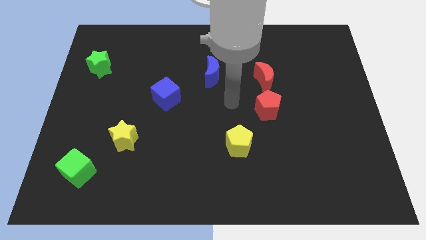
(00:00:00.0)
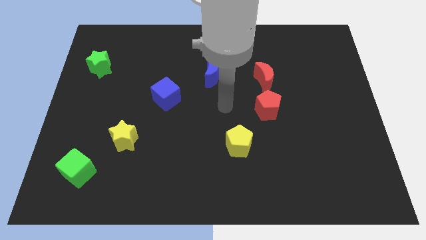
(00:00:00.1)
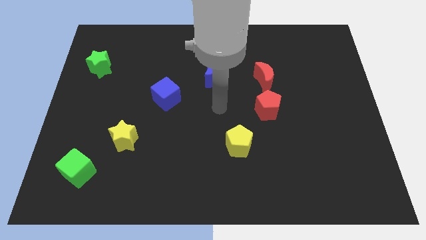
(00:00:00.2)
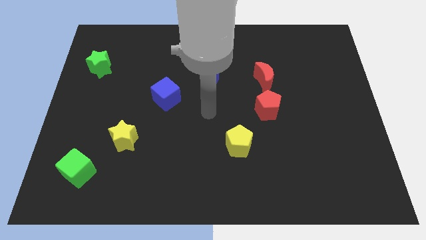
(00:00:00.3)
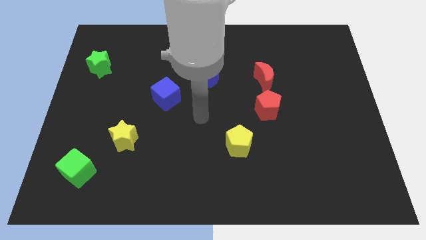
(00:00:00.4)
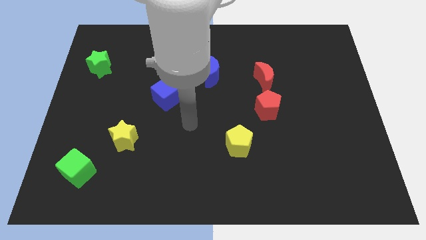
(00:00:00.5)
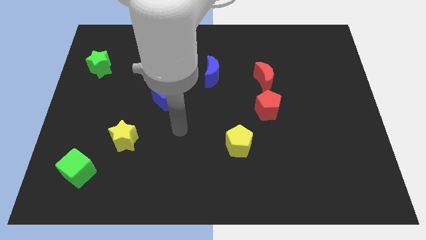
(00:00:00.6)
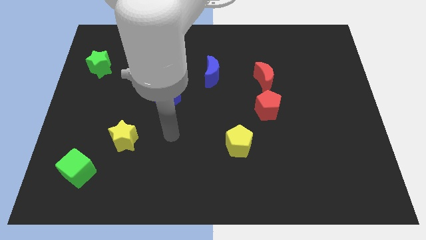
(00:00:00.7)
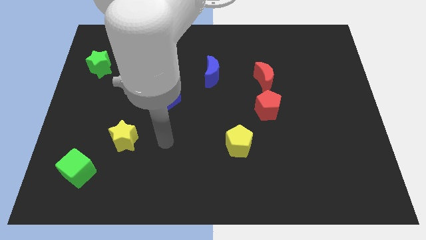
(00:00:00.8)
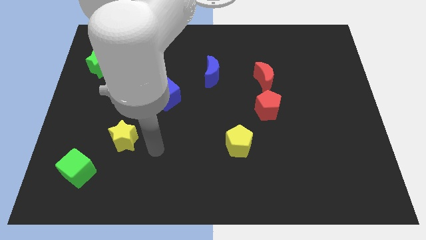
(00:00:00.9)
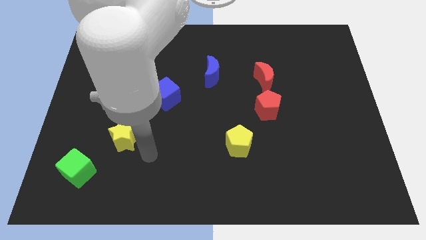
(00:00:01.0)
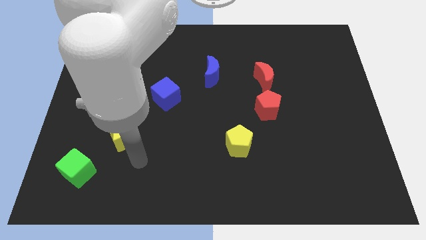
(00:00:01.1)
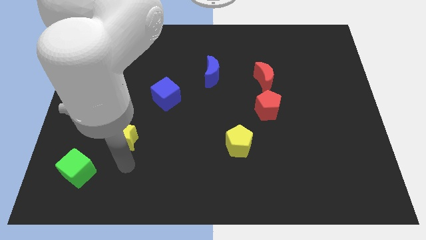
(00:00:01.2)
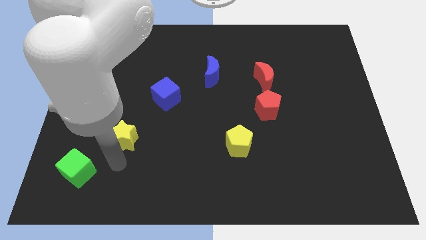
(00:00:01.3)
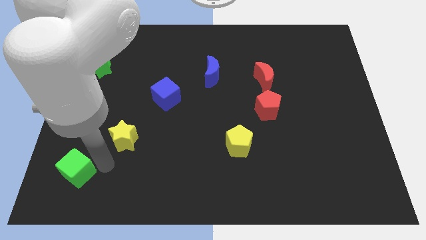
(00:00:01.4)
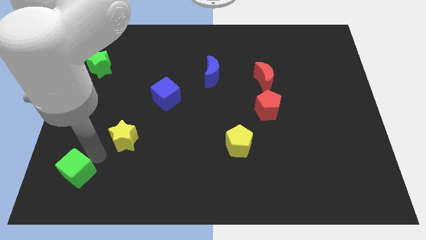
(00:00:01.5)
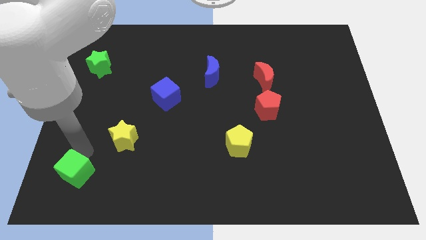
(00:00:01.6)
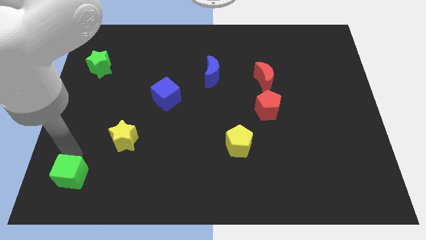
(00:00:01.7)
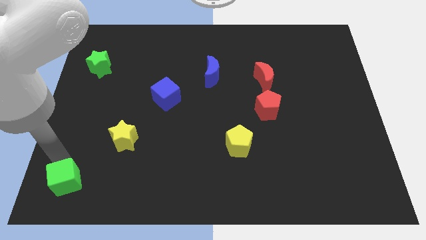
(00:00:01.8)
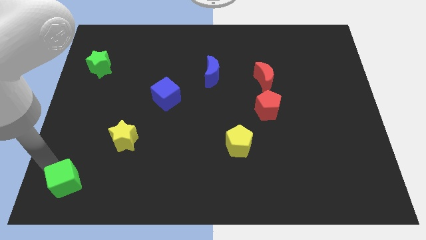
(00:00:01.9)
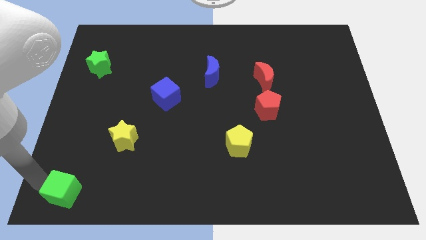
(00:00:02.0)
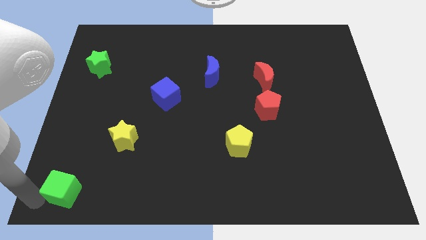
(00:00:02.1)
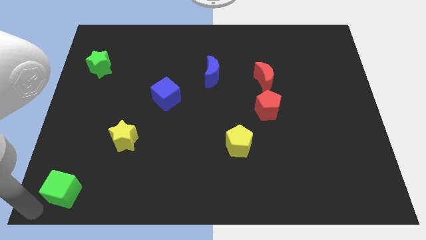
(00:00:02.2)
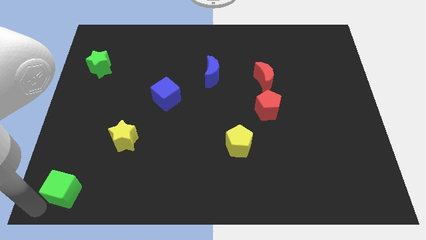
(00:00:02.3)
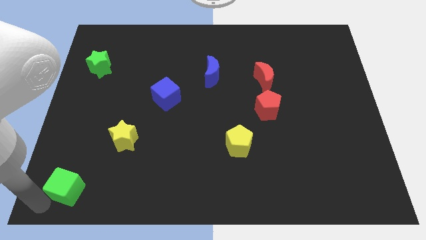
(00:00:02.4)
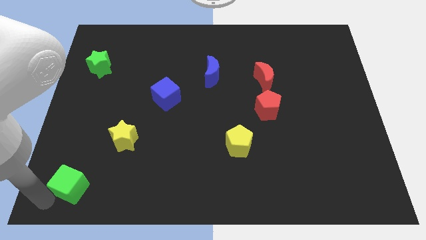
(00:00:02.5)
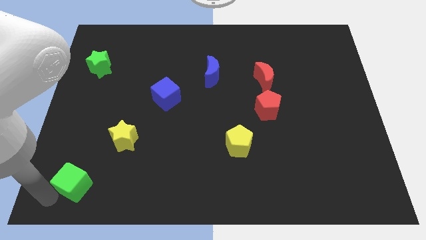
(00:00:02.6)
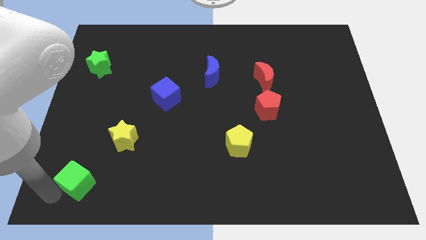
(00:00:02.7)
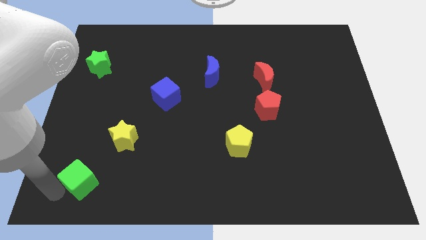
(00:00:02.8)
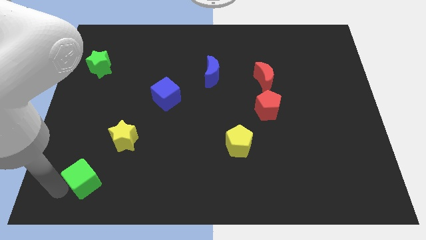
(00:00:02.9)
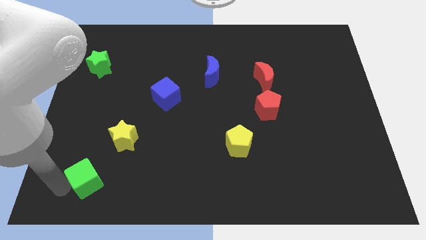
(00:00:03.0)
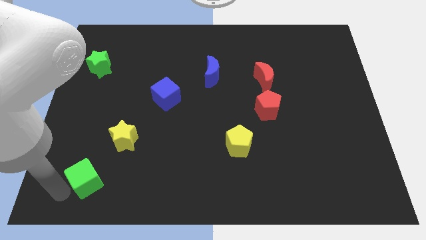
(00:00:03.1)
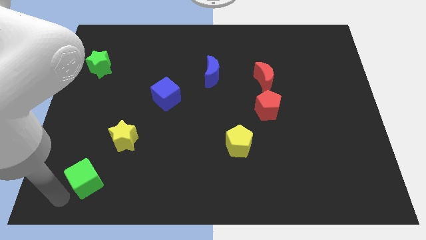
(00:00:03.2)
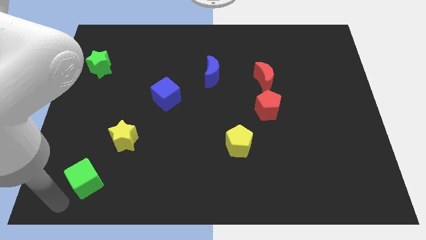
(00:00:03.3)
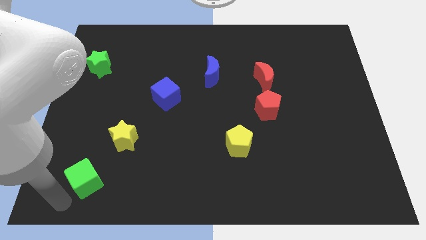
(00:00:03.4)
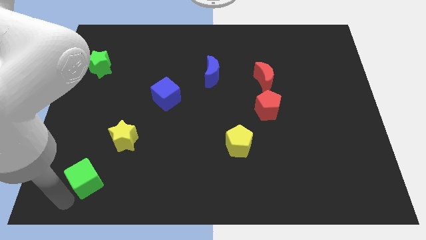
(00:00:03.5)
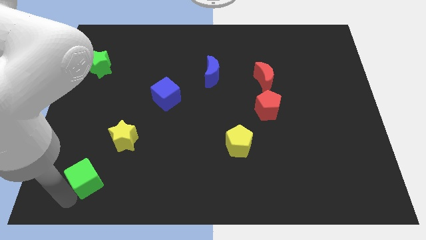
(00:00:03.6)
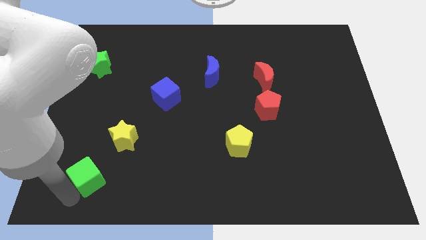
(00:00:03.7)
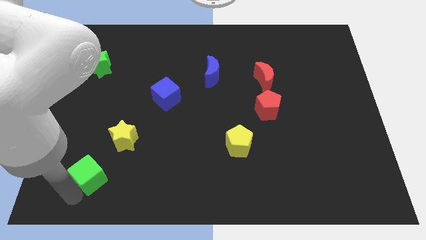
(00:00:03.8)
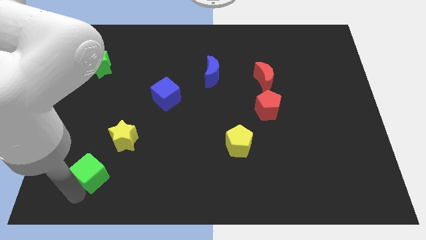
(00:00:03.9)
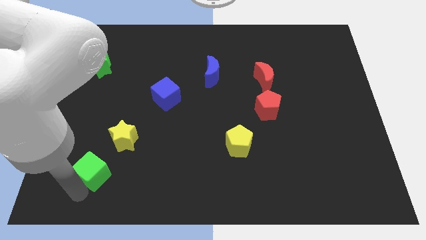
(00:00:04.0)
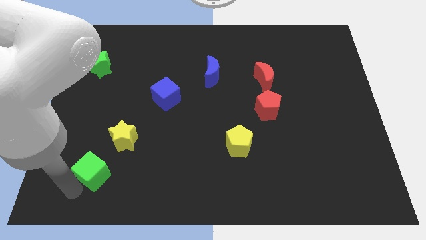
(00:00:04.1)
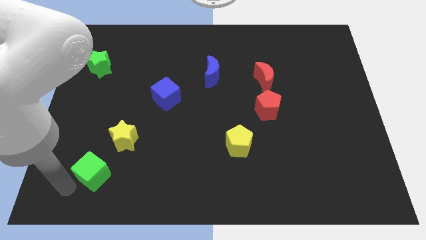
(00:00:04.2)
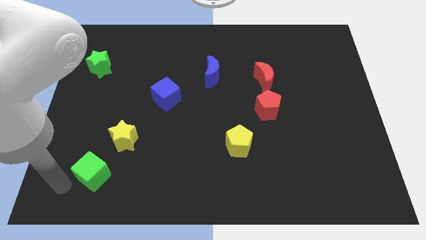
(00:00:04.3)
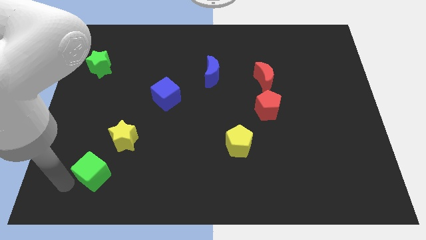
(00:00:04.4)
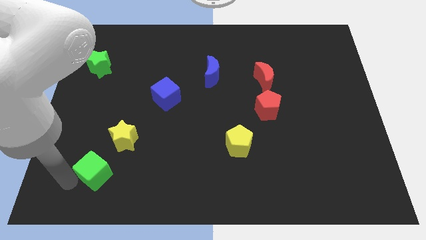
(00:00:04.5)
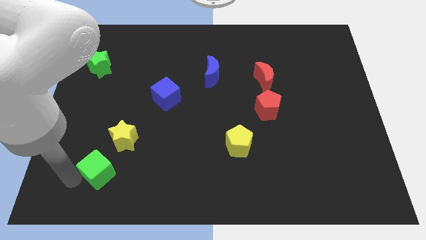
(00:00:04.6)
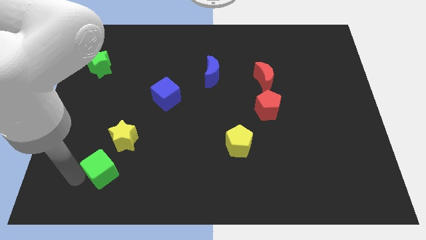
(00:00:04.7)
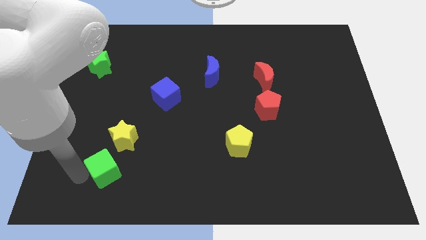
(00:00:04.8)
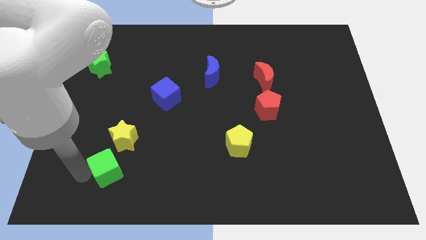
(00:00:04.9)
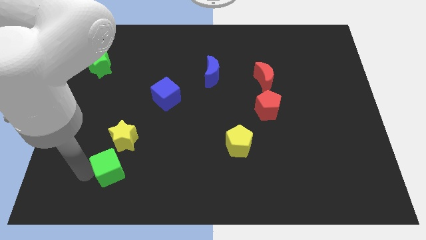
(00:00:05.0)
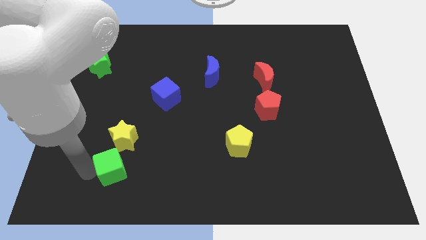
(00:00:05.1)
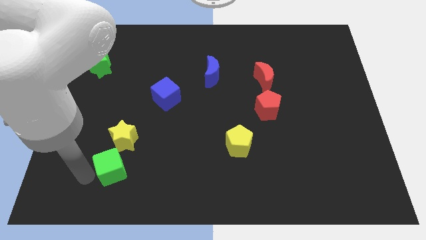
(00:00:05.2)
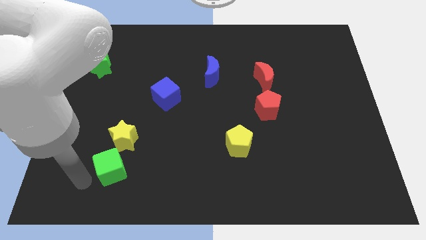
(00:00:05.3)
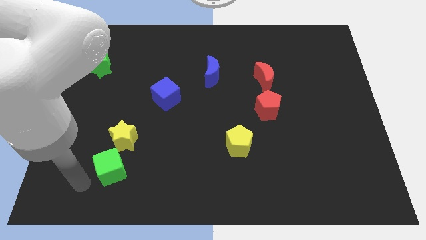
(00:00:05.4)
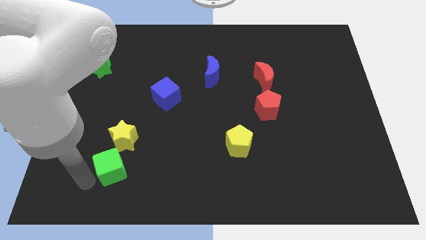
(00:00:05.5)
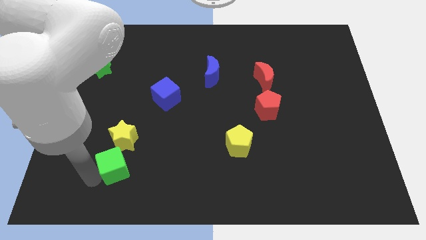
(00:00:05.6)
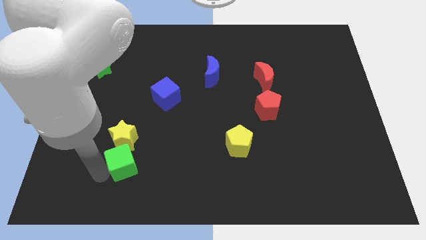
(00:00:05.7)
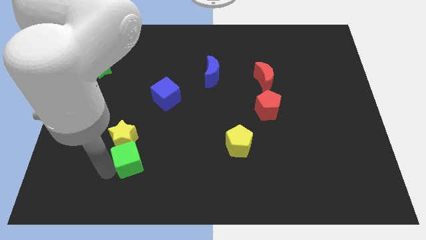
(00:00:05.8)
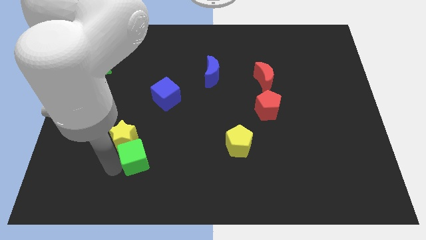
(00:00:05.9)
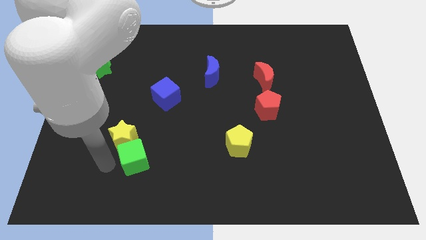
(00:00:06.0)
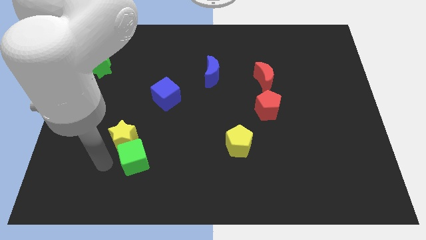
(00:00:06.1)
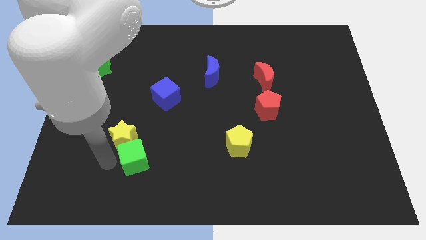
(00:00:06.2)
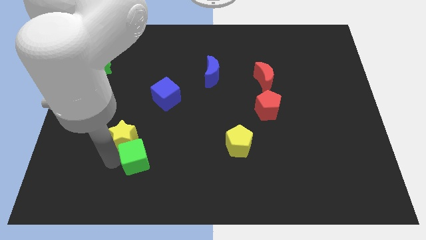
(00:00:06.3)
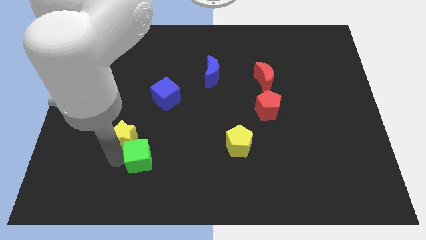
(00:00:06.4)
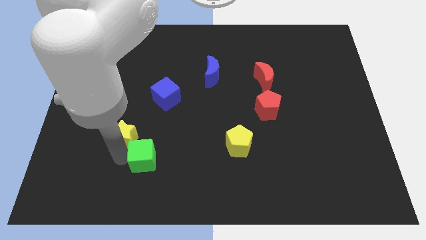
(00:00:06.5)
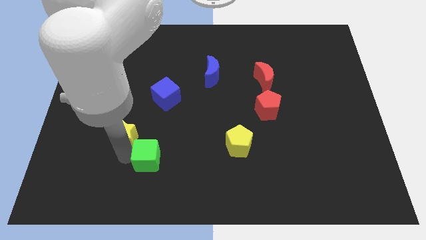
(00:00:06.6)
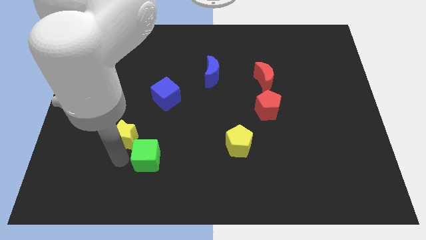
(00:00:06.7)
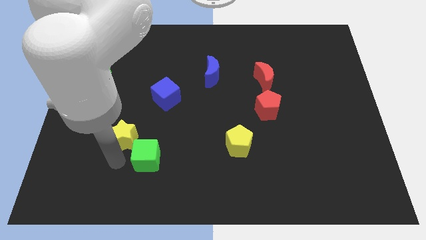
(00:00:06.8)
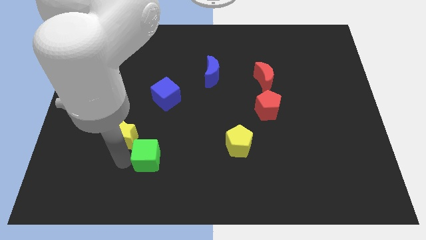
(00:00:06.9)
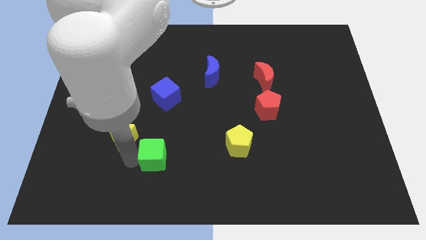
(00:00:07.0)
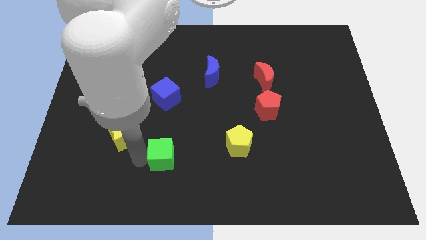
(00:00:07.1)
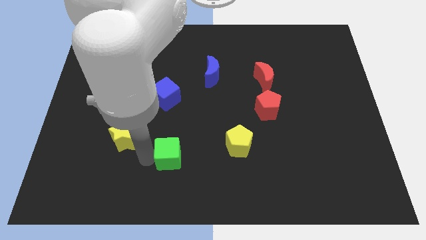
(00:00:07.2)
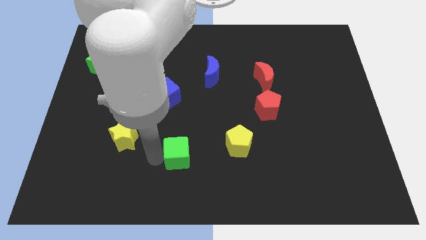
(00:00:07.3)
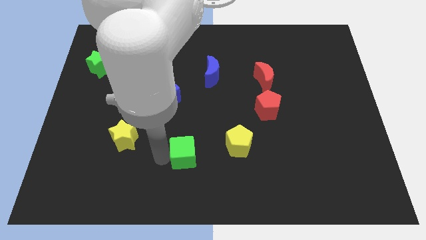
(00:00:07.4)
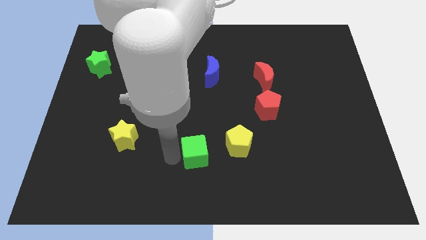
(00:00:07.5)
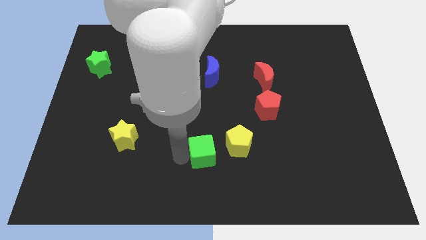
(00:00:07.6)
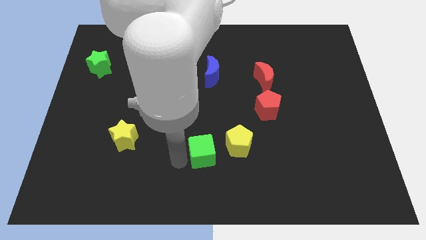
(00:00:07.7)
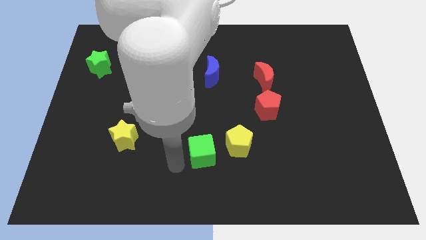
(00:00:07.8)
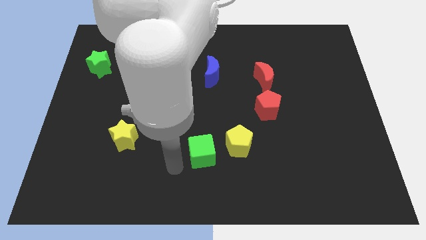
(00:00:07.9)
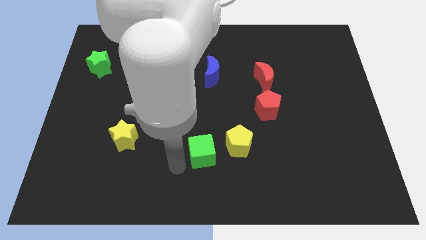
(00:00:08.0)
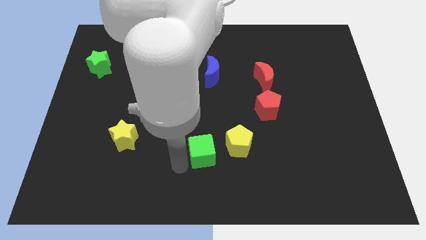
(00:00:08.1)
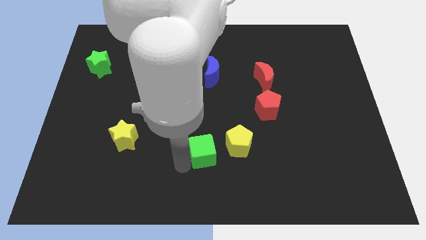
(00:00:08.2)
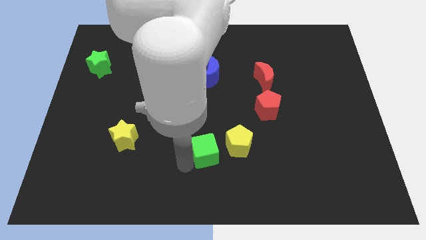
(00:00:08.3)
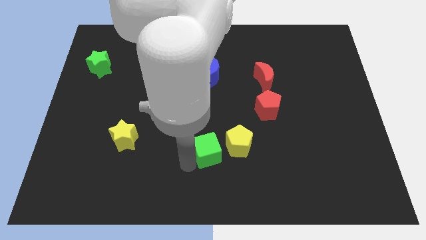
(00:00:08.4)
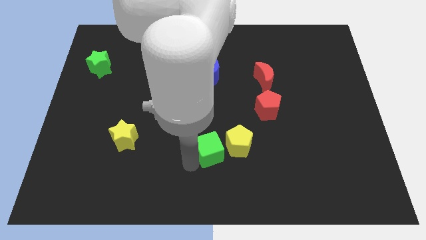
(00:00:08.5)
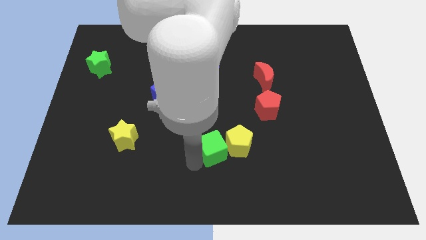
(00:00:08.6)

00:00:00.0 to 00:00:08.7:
put the green cube towards the yellow pentagon
